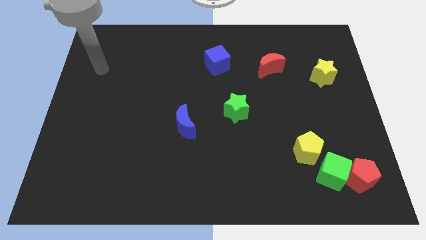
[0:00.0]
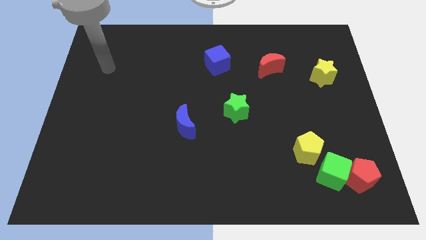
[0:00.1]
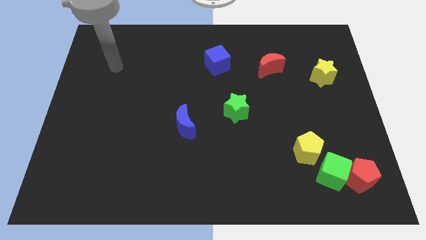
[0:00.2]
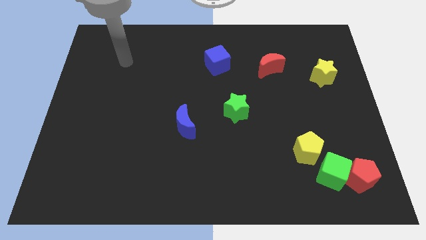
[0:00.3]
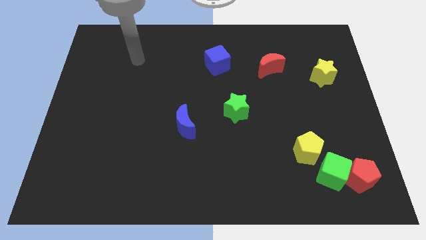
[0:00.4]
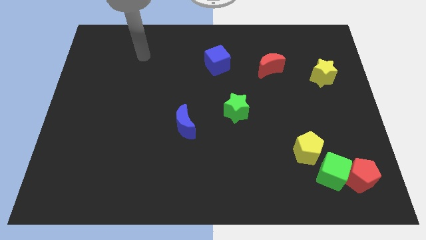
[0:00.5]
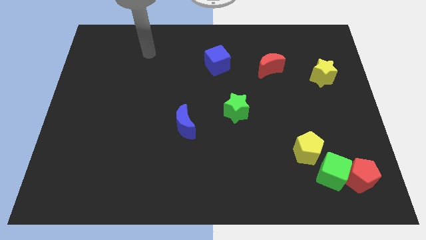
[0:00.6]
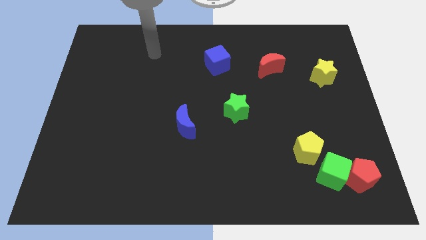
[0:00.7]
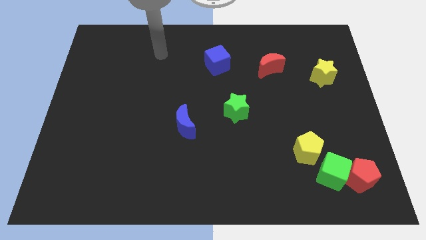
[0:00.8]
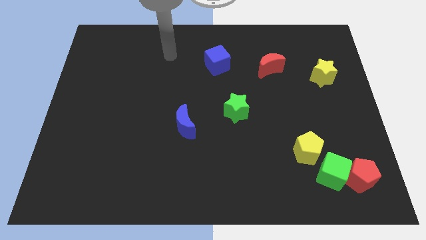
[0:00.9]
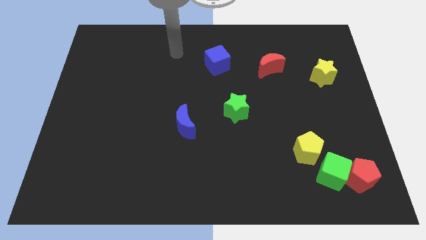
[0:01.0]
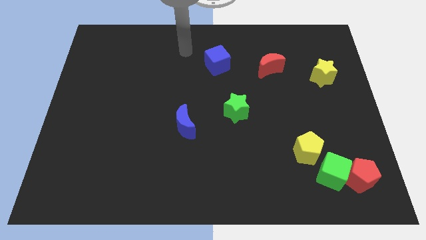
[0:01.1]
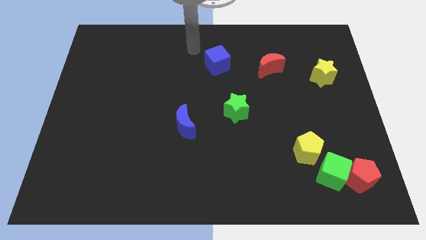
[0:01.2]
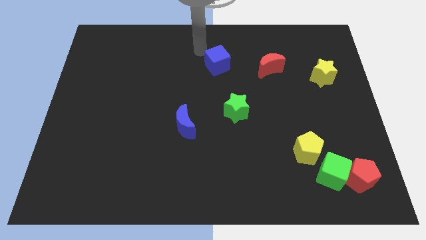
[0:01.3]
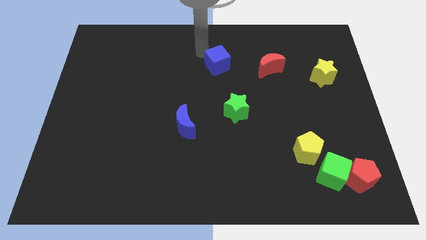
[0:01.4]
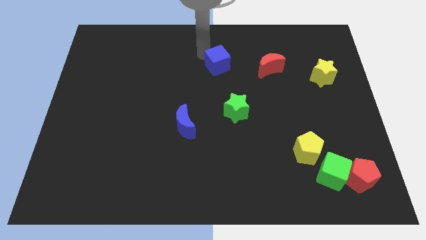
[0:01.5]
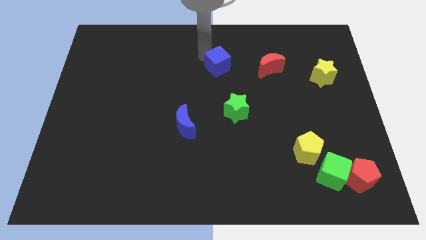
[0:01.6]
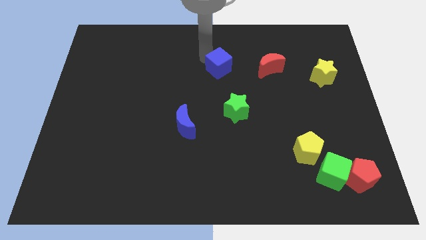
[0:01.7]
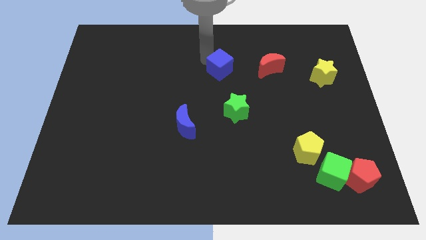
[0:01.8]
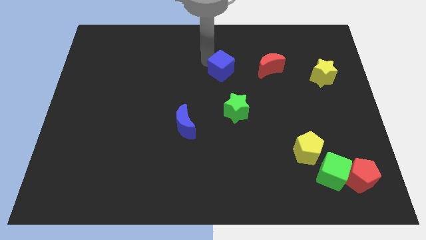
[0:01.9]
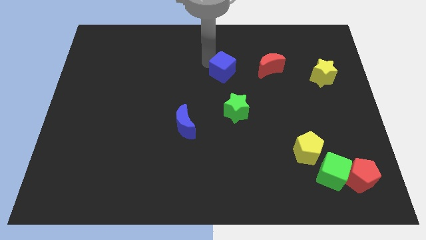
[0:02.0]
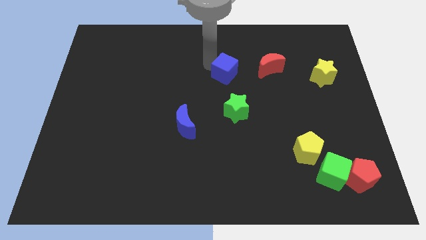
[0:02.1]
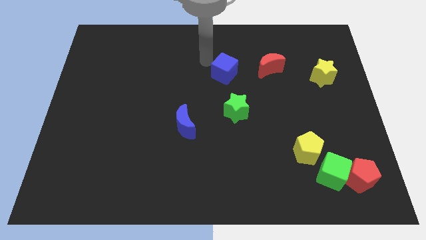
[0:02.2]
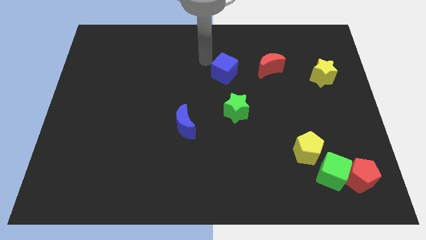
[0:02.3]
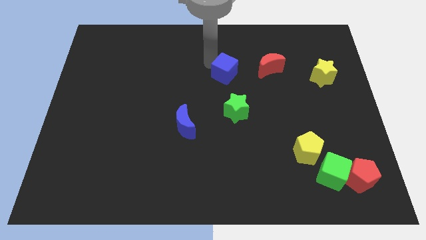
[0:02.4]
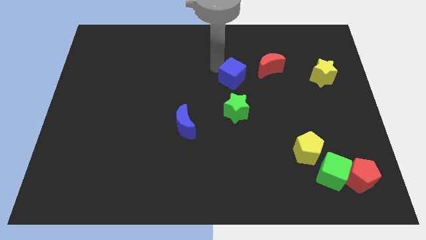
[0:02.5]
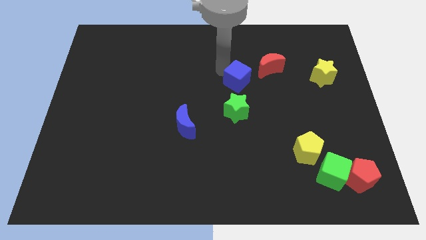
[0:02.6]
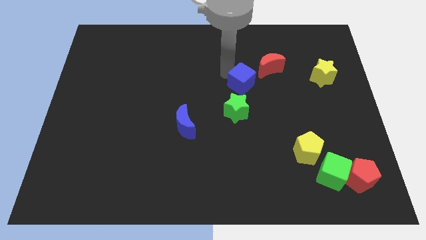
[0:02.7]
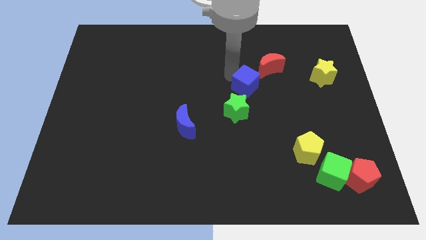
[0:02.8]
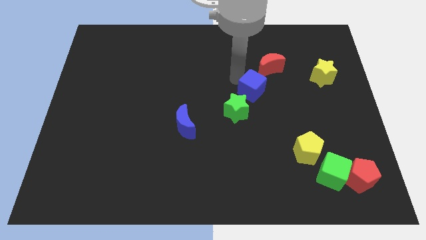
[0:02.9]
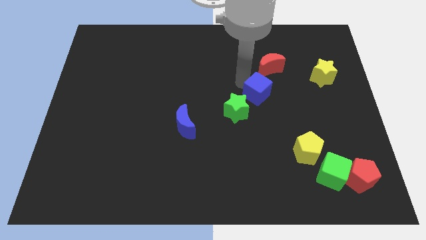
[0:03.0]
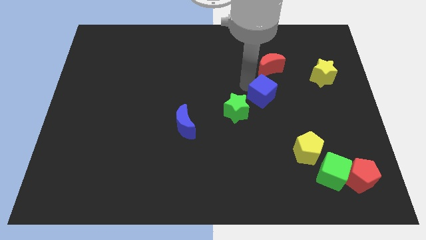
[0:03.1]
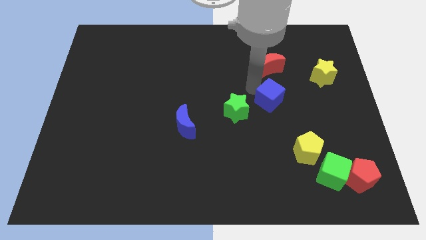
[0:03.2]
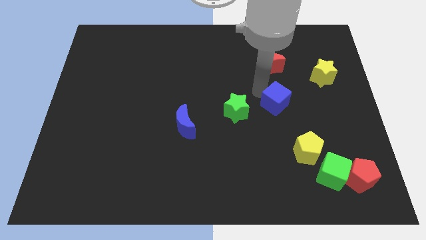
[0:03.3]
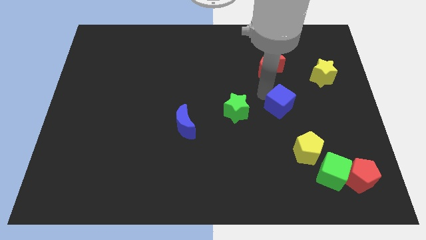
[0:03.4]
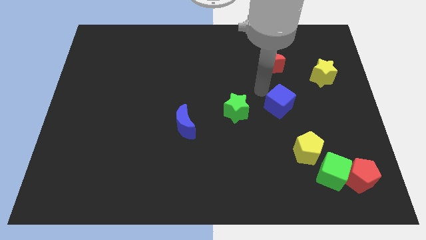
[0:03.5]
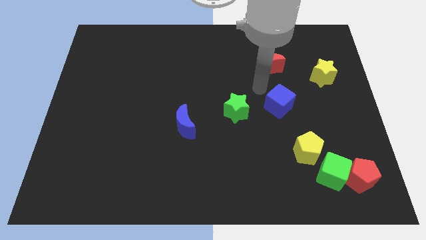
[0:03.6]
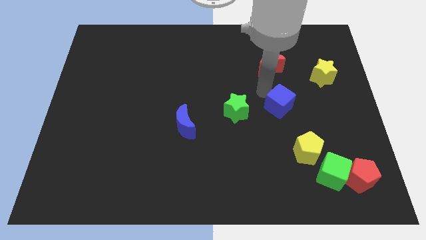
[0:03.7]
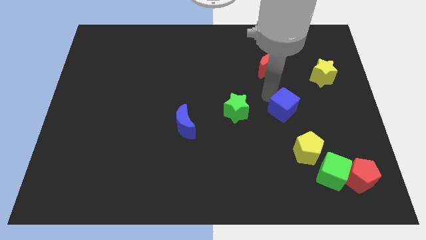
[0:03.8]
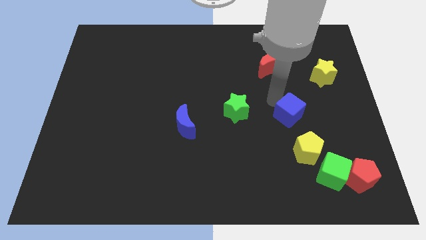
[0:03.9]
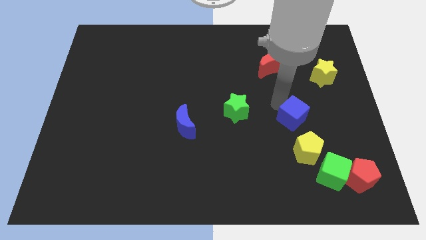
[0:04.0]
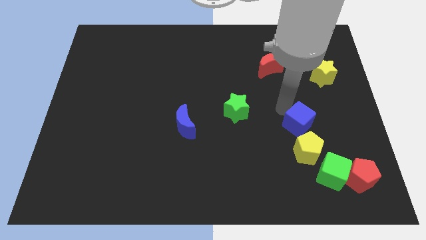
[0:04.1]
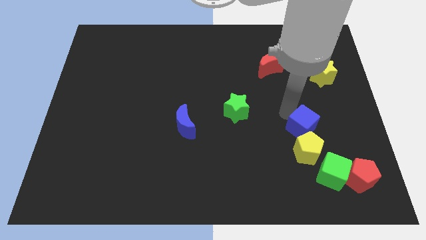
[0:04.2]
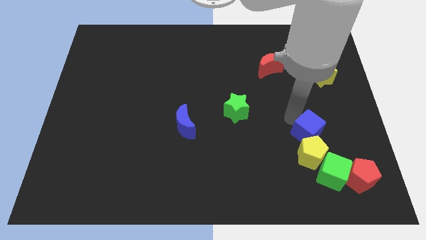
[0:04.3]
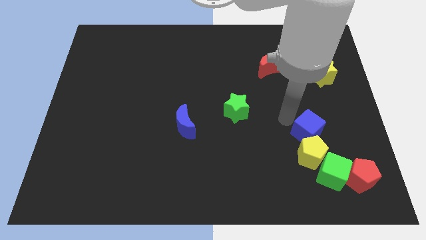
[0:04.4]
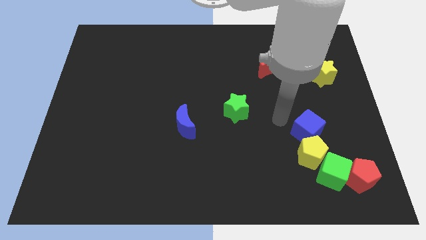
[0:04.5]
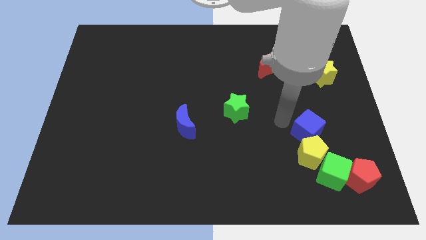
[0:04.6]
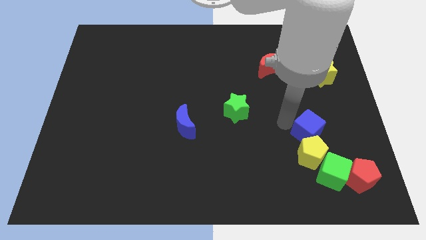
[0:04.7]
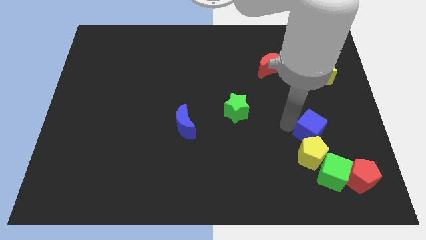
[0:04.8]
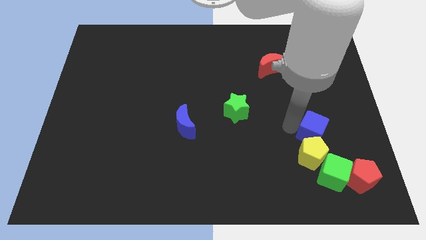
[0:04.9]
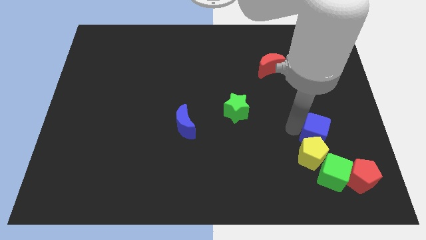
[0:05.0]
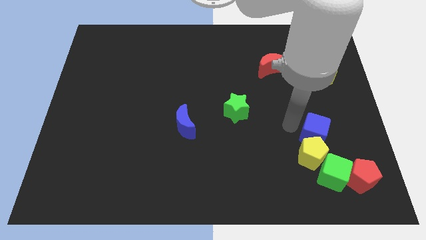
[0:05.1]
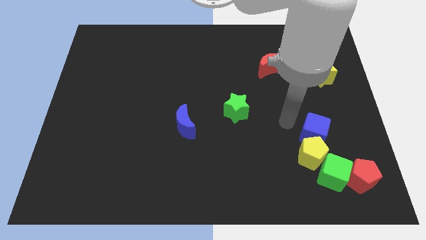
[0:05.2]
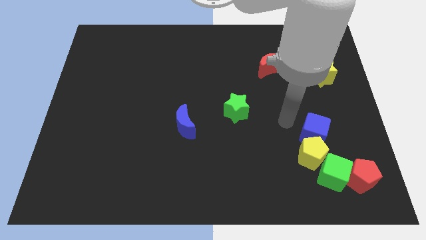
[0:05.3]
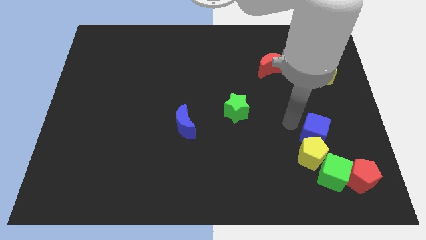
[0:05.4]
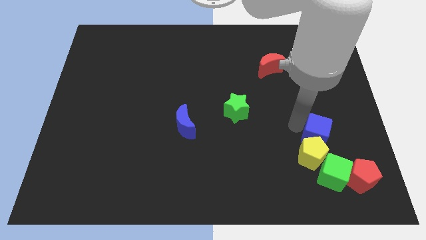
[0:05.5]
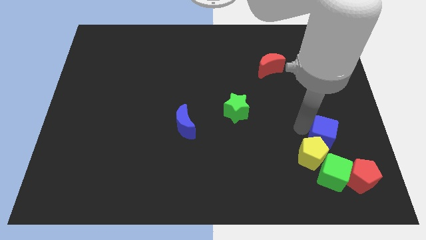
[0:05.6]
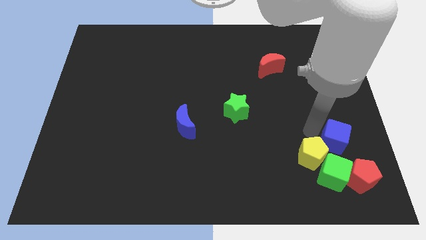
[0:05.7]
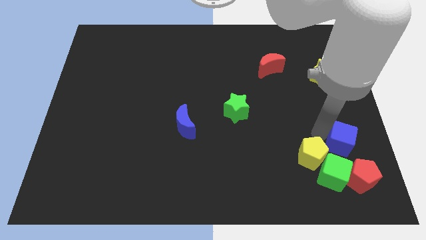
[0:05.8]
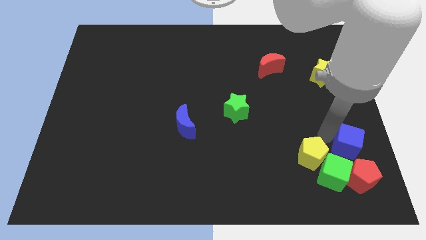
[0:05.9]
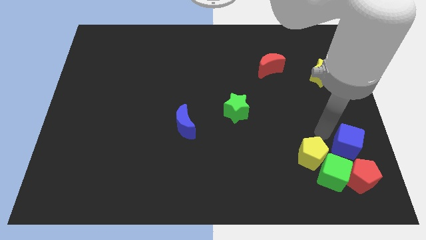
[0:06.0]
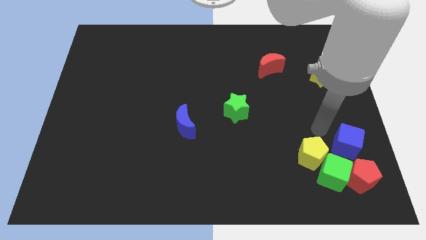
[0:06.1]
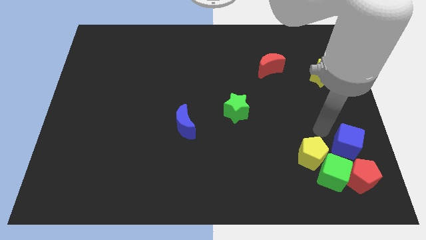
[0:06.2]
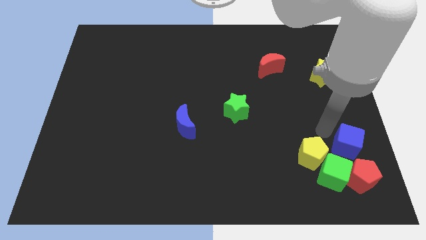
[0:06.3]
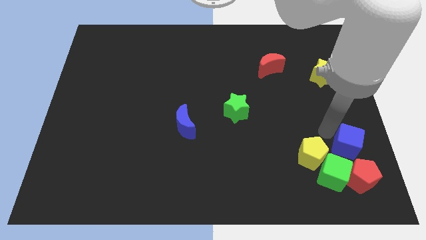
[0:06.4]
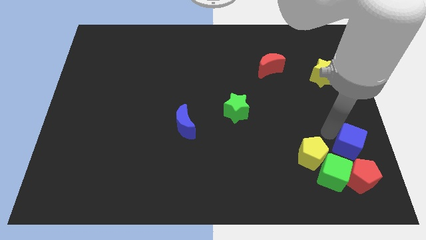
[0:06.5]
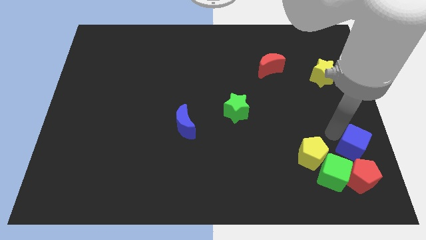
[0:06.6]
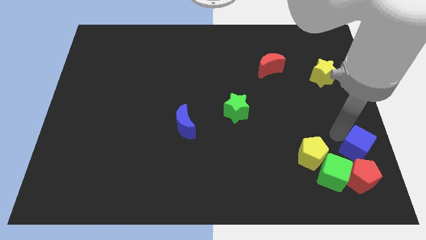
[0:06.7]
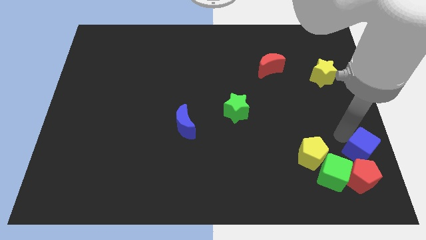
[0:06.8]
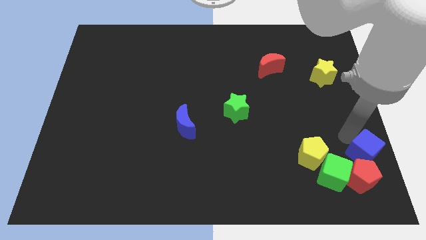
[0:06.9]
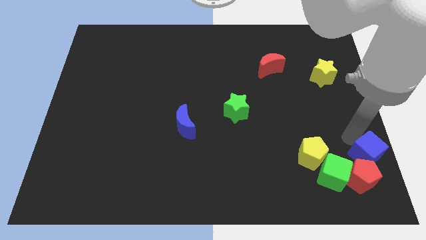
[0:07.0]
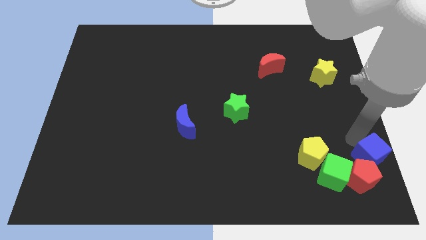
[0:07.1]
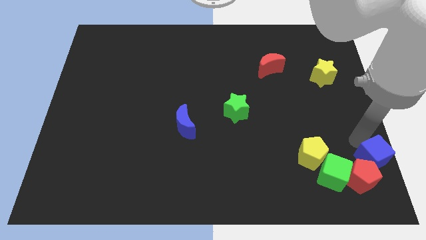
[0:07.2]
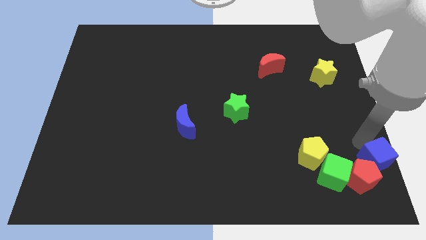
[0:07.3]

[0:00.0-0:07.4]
slide the blue cube to the bottom right corner
